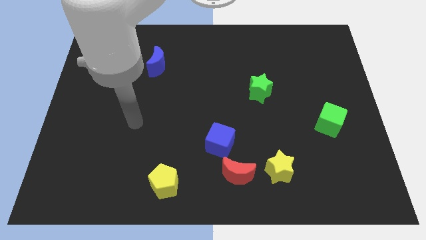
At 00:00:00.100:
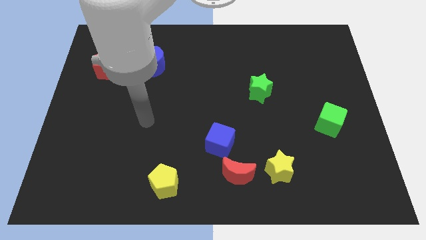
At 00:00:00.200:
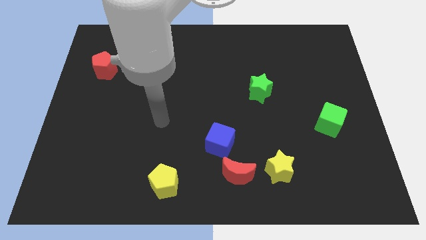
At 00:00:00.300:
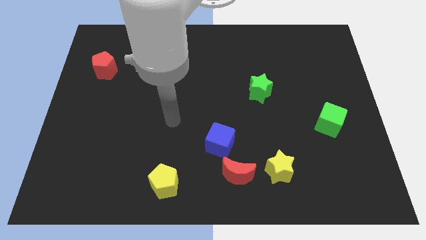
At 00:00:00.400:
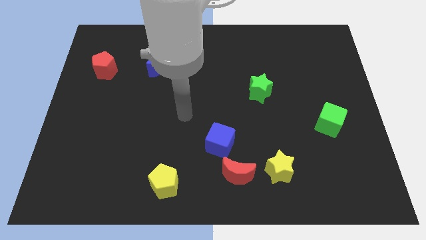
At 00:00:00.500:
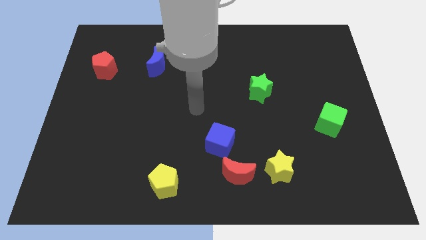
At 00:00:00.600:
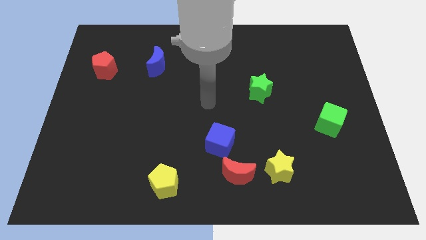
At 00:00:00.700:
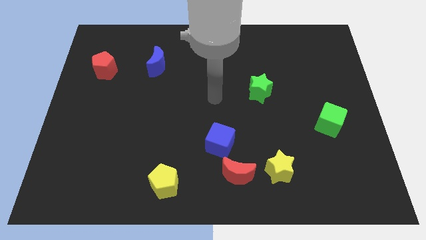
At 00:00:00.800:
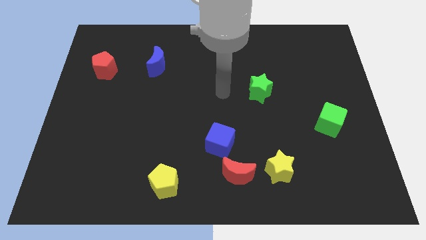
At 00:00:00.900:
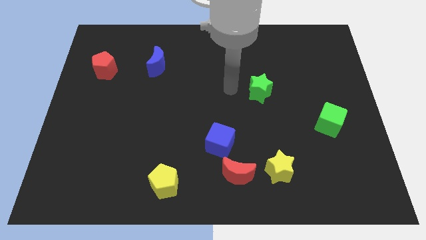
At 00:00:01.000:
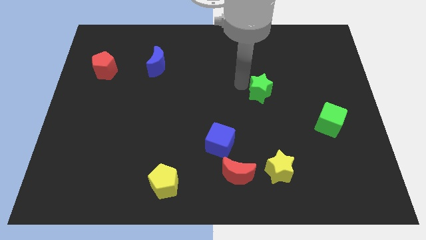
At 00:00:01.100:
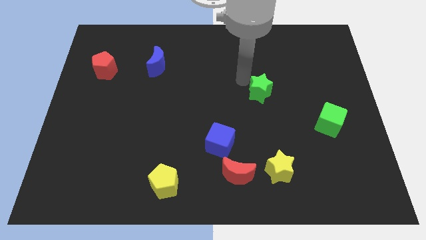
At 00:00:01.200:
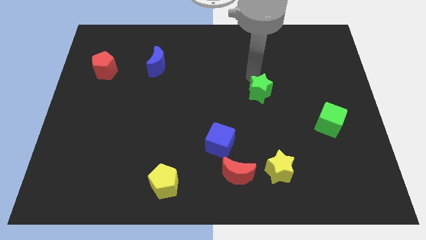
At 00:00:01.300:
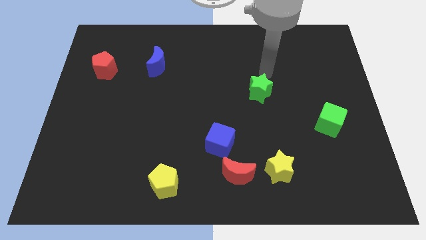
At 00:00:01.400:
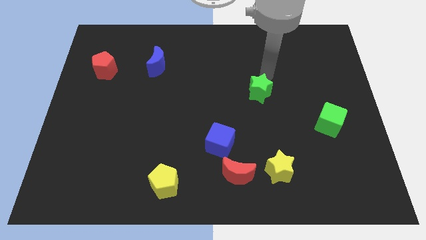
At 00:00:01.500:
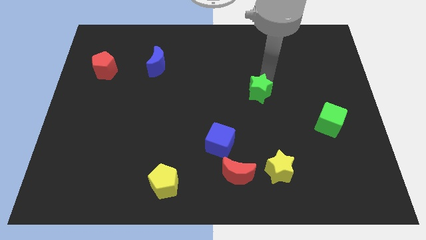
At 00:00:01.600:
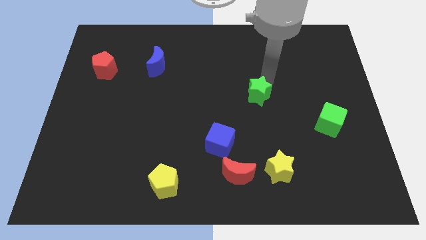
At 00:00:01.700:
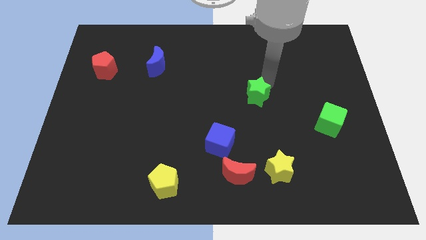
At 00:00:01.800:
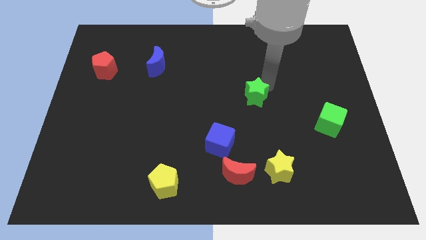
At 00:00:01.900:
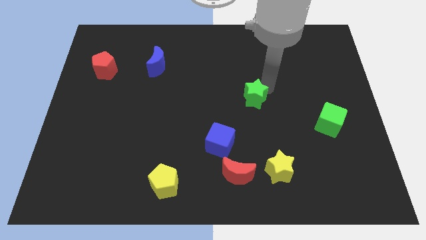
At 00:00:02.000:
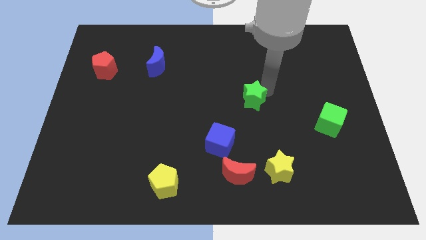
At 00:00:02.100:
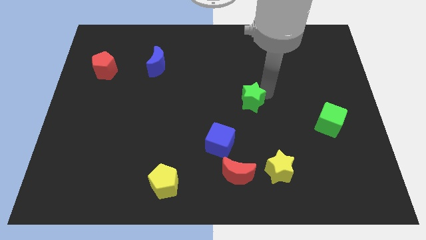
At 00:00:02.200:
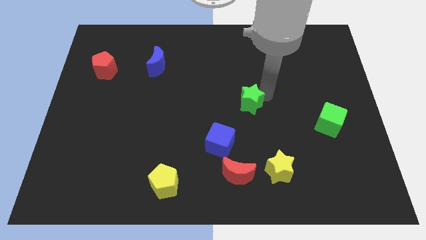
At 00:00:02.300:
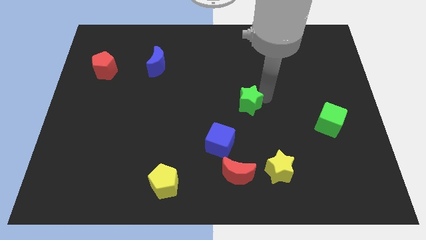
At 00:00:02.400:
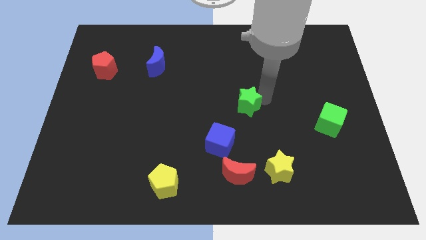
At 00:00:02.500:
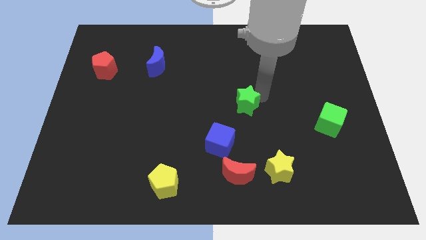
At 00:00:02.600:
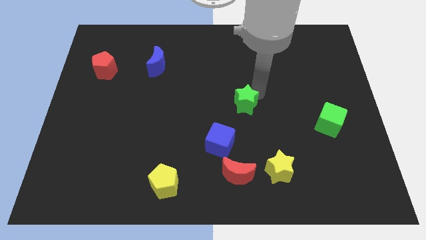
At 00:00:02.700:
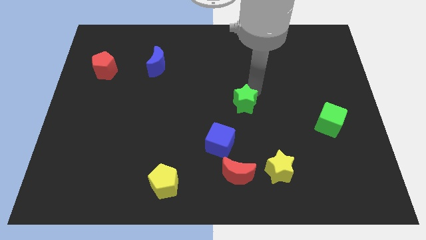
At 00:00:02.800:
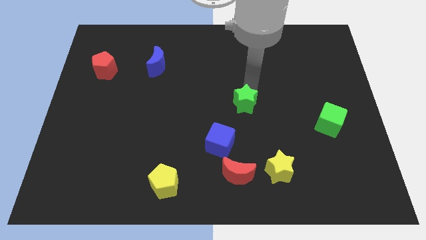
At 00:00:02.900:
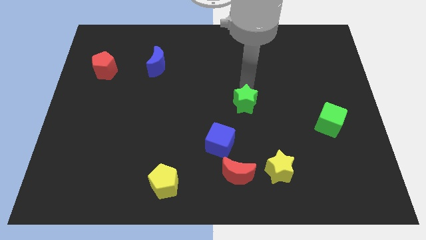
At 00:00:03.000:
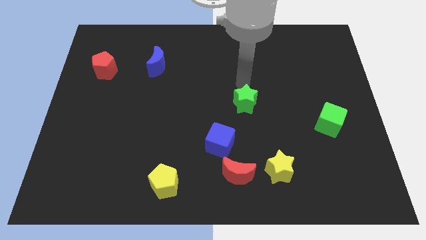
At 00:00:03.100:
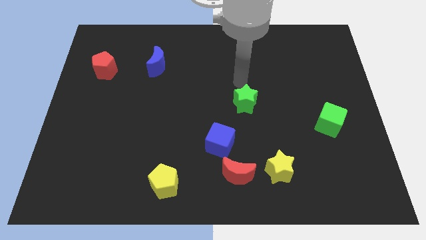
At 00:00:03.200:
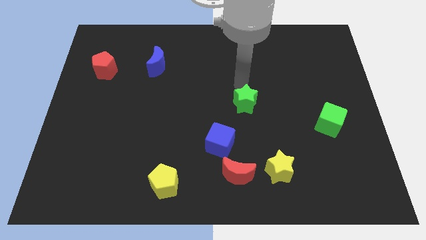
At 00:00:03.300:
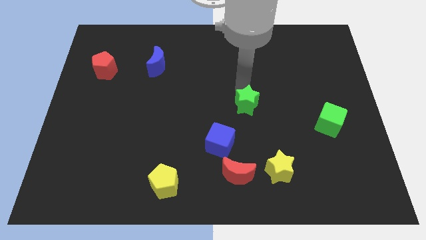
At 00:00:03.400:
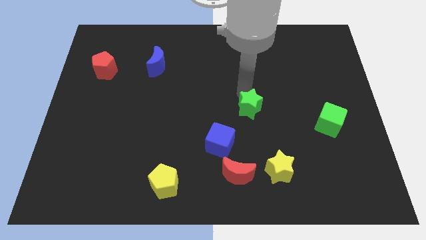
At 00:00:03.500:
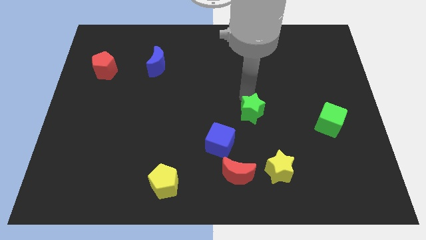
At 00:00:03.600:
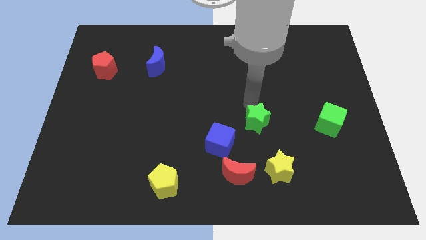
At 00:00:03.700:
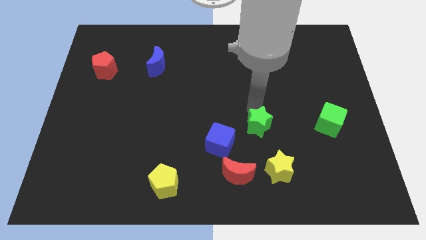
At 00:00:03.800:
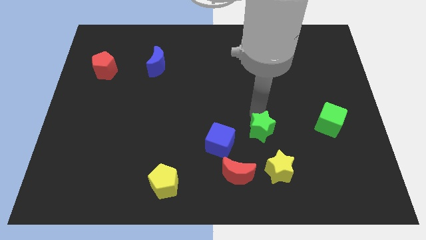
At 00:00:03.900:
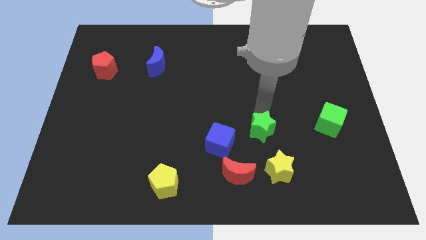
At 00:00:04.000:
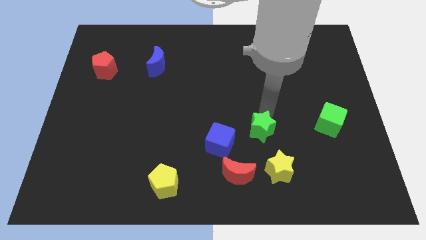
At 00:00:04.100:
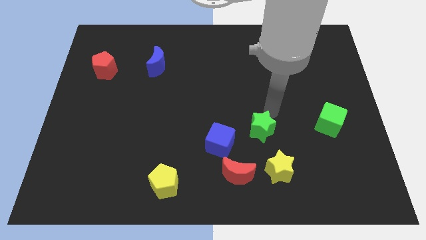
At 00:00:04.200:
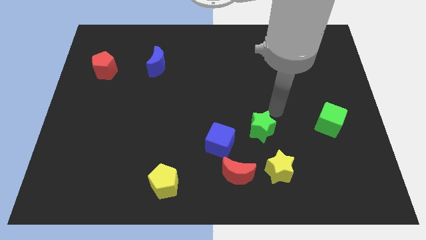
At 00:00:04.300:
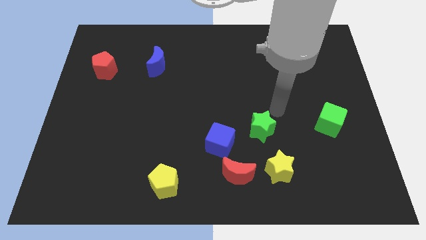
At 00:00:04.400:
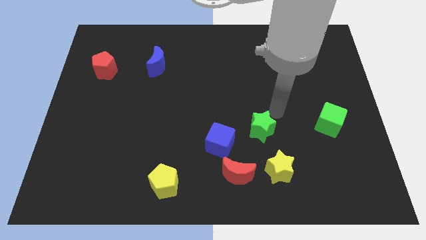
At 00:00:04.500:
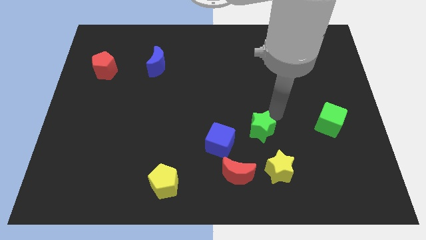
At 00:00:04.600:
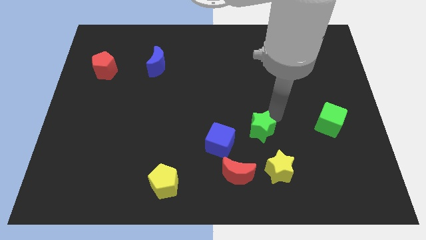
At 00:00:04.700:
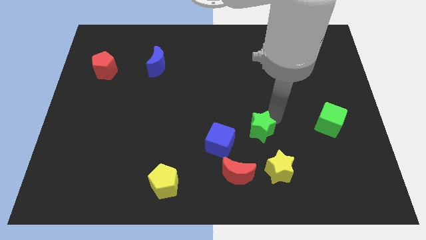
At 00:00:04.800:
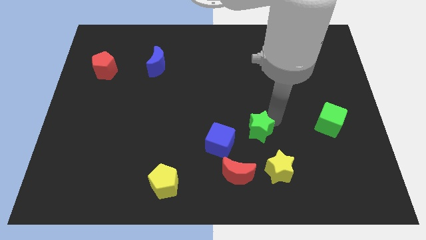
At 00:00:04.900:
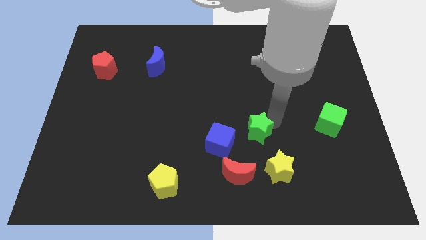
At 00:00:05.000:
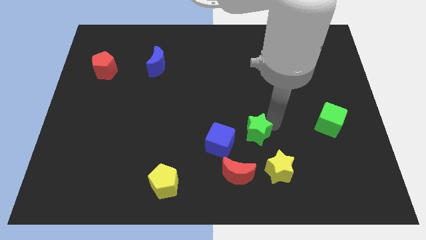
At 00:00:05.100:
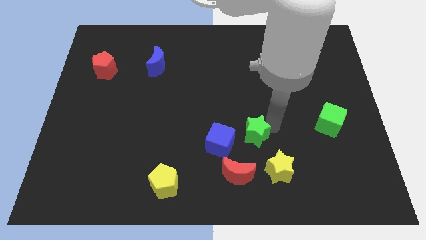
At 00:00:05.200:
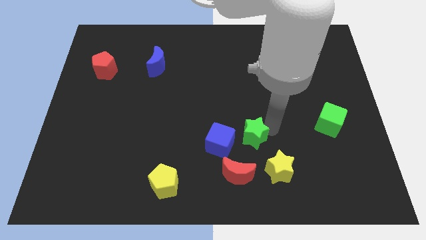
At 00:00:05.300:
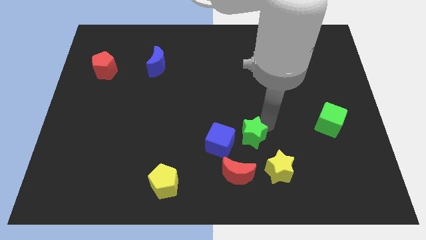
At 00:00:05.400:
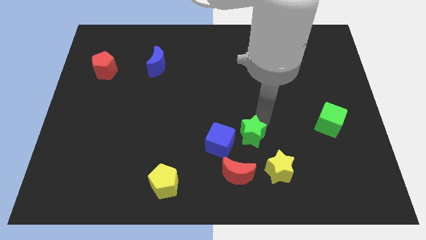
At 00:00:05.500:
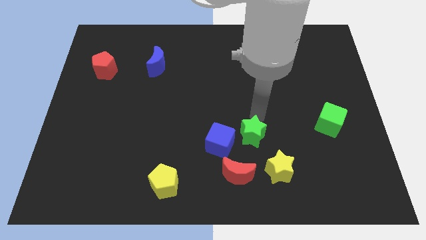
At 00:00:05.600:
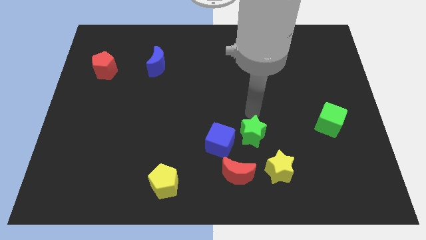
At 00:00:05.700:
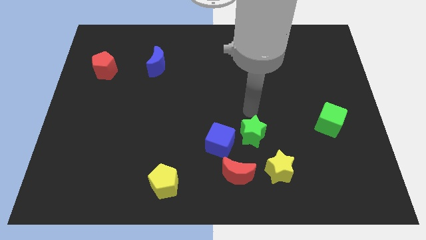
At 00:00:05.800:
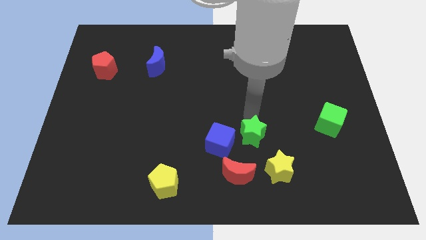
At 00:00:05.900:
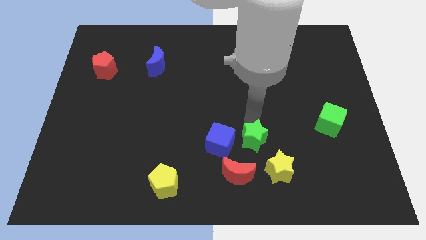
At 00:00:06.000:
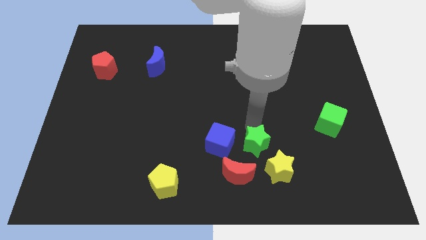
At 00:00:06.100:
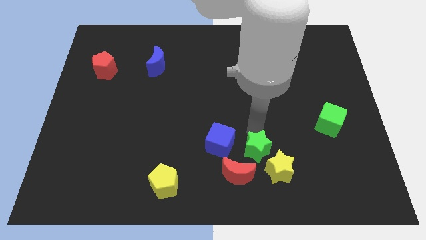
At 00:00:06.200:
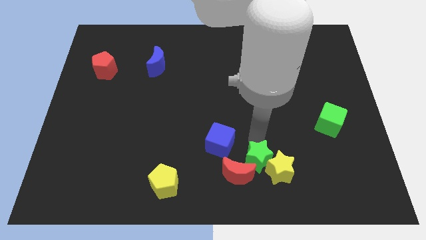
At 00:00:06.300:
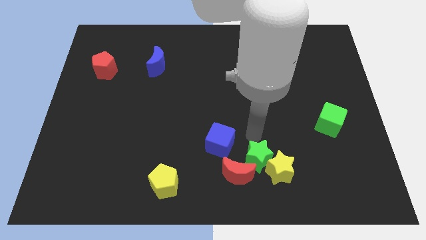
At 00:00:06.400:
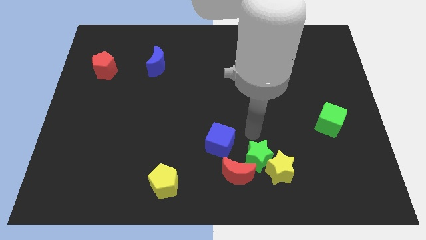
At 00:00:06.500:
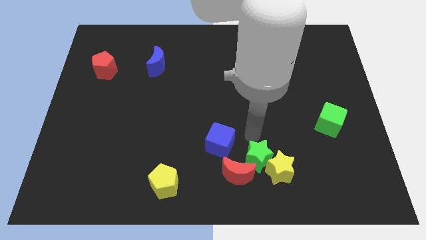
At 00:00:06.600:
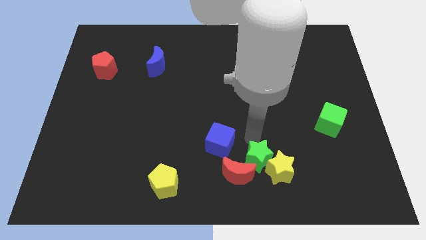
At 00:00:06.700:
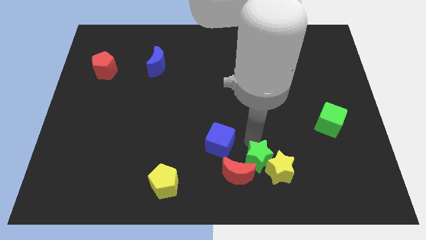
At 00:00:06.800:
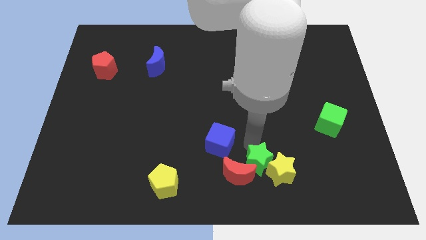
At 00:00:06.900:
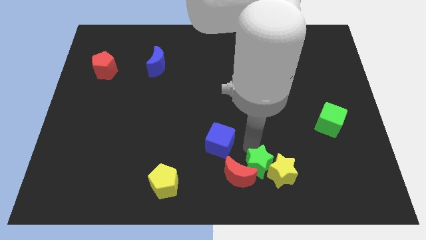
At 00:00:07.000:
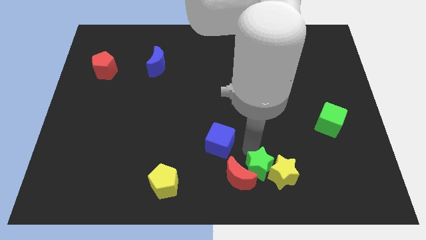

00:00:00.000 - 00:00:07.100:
slide the green star to the bottom side

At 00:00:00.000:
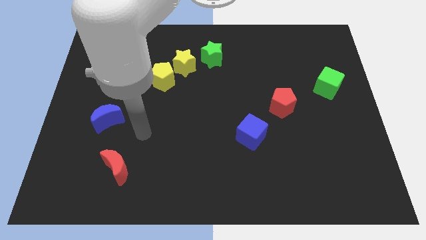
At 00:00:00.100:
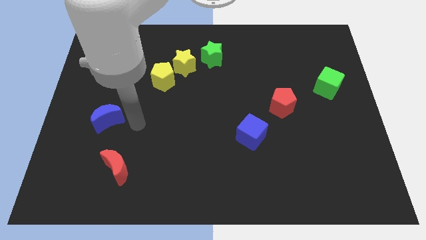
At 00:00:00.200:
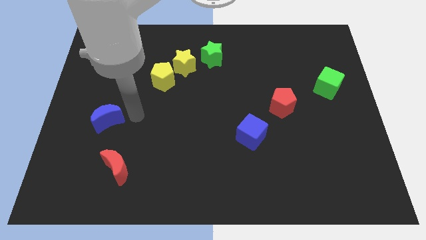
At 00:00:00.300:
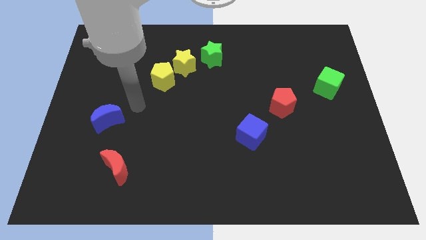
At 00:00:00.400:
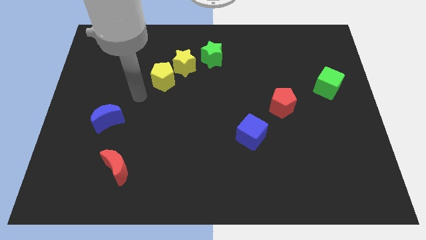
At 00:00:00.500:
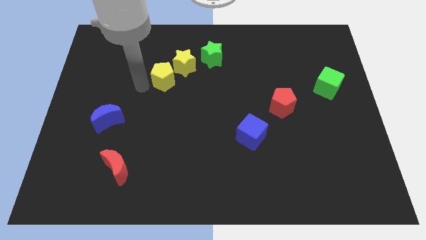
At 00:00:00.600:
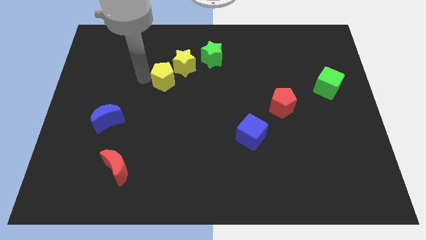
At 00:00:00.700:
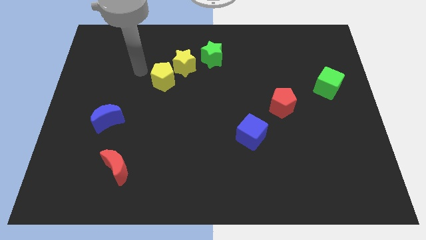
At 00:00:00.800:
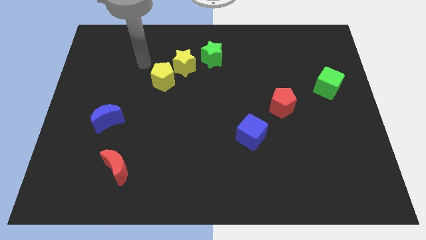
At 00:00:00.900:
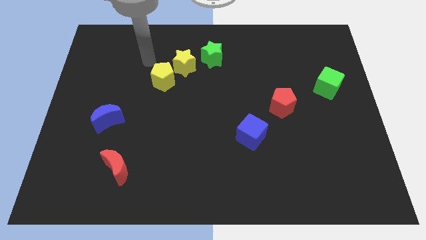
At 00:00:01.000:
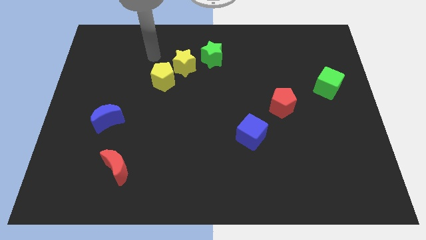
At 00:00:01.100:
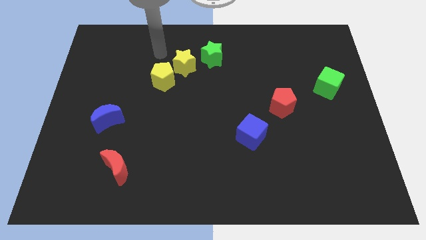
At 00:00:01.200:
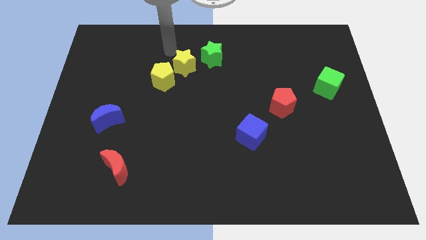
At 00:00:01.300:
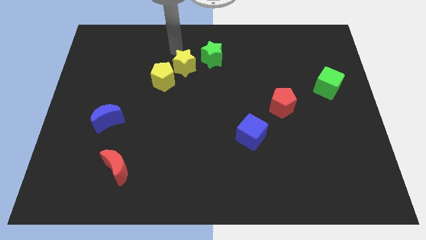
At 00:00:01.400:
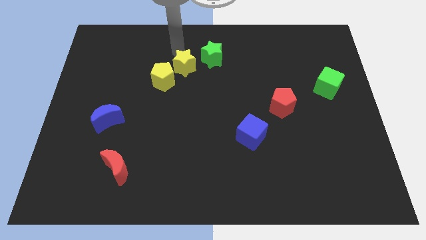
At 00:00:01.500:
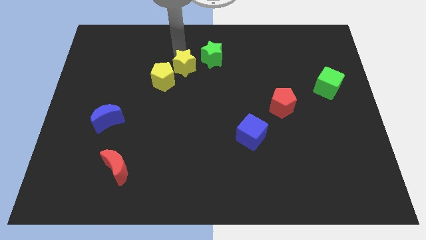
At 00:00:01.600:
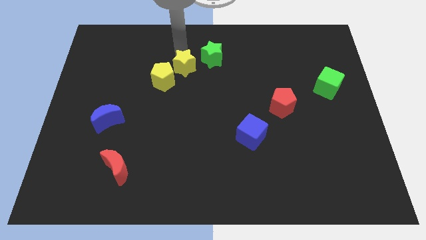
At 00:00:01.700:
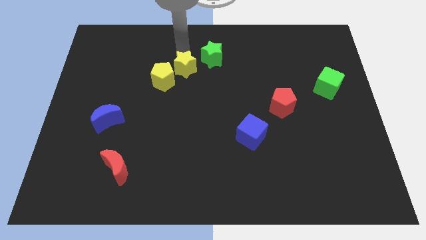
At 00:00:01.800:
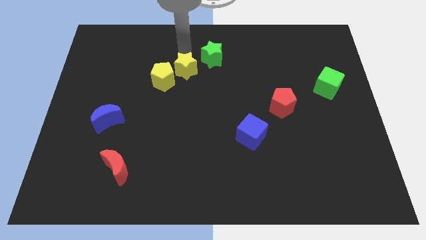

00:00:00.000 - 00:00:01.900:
push the yellow star to the middle of the board
